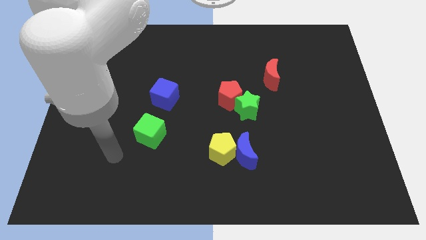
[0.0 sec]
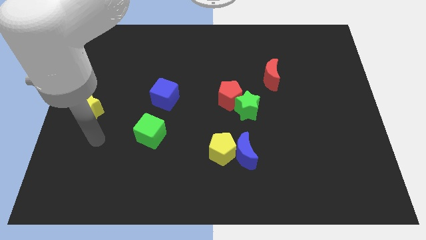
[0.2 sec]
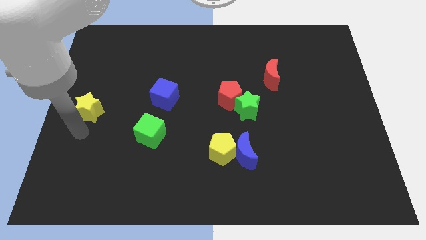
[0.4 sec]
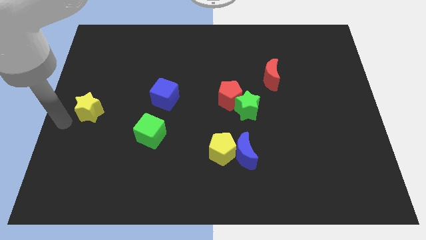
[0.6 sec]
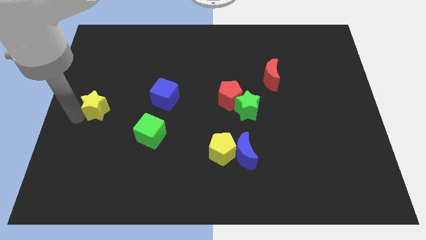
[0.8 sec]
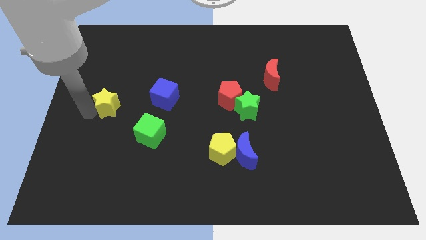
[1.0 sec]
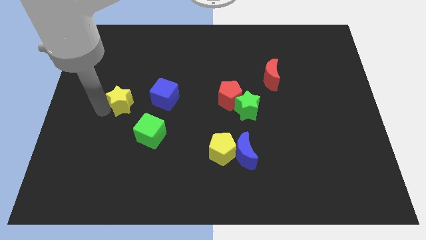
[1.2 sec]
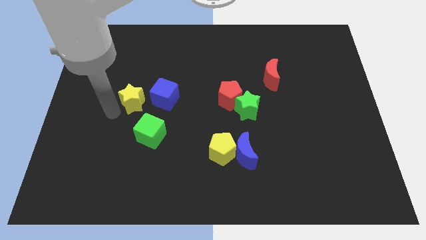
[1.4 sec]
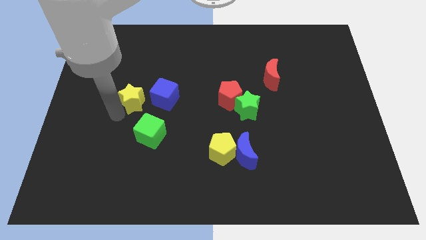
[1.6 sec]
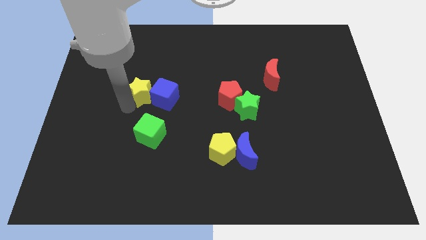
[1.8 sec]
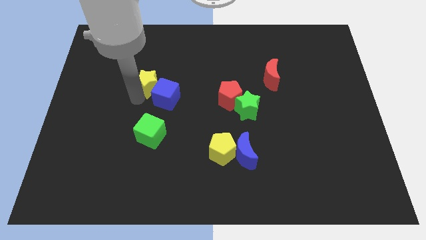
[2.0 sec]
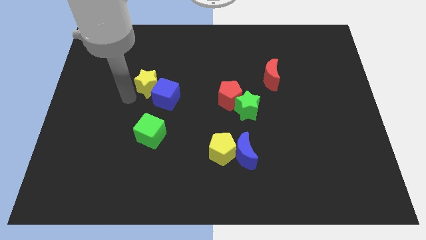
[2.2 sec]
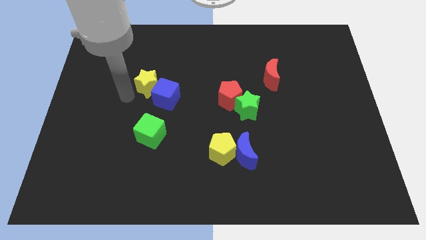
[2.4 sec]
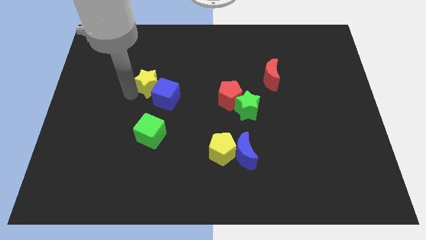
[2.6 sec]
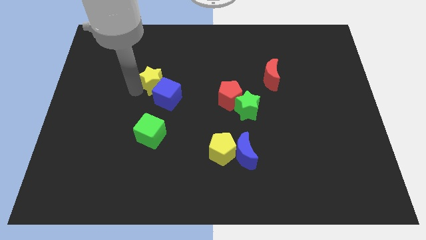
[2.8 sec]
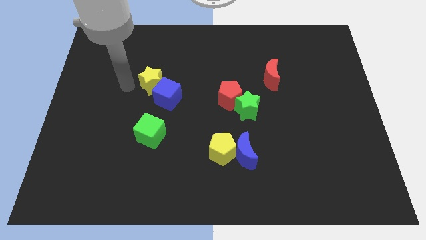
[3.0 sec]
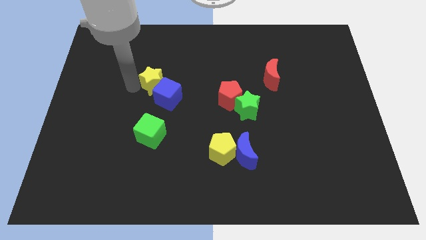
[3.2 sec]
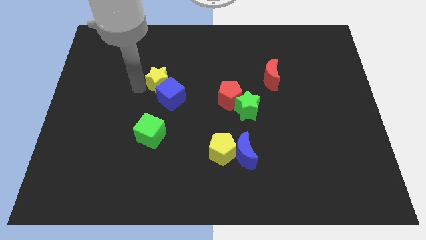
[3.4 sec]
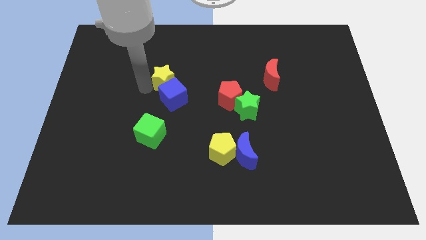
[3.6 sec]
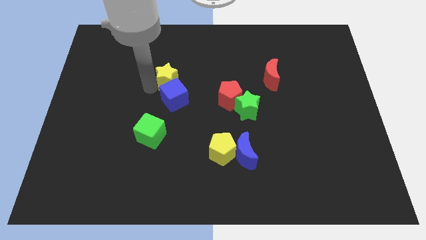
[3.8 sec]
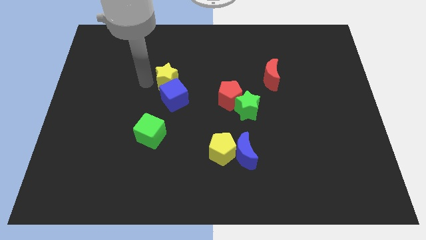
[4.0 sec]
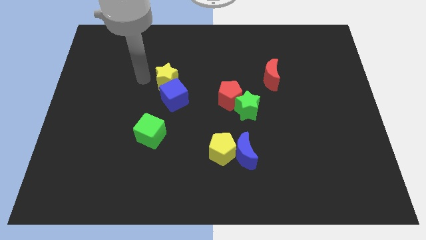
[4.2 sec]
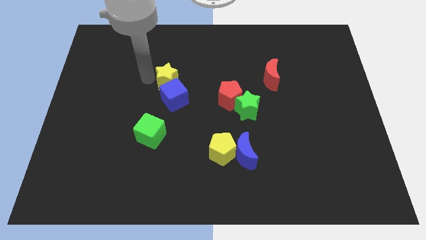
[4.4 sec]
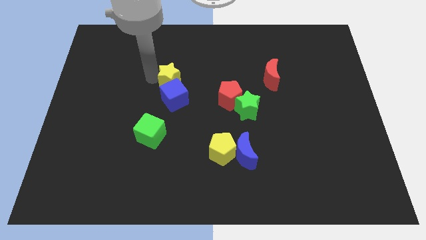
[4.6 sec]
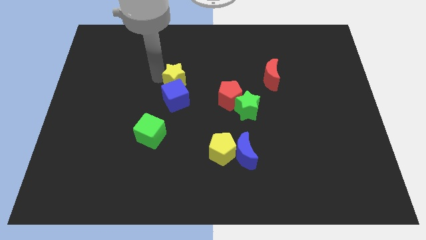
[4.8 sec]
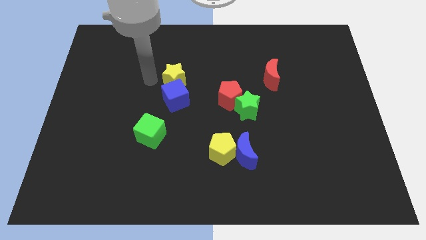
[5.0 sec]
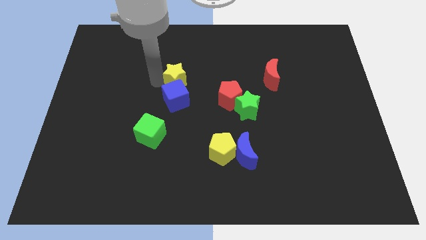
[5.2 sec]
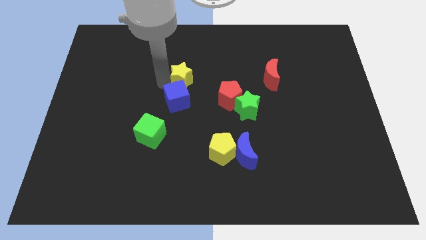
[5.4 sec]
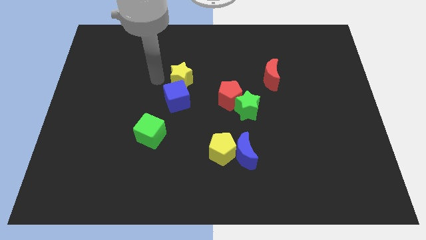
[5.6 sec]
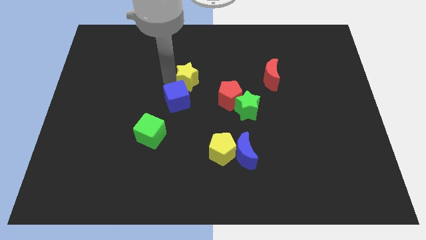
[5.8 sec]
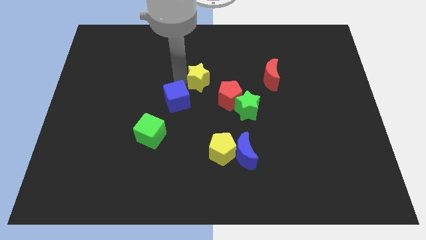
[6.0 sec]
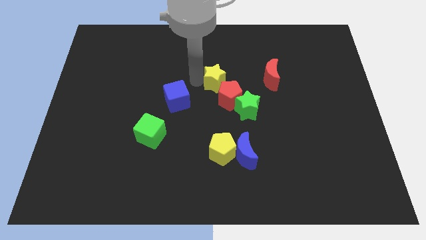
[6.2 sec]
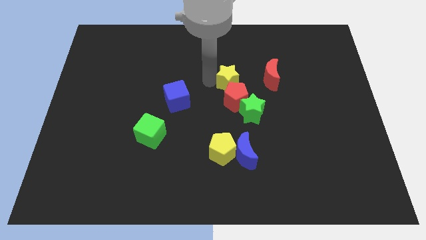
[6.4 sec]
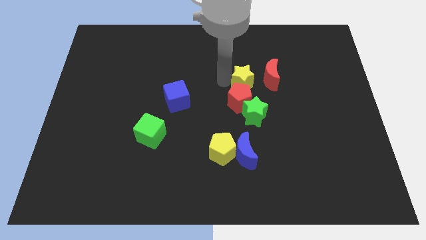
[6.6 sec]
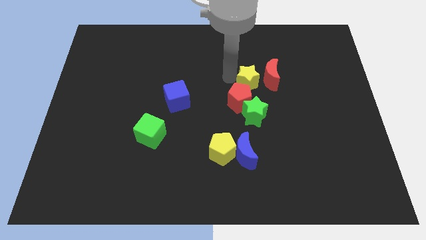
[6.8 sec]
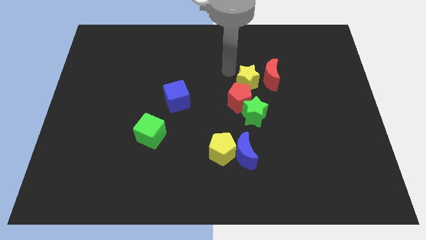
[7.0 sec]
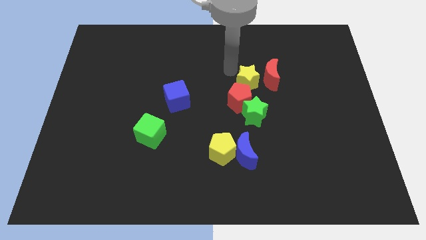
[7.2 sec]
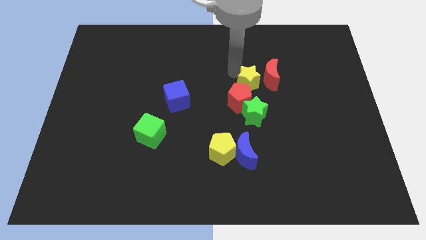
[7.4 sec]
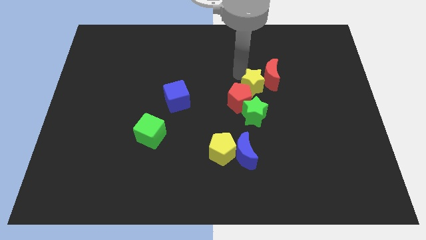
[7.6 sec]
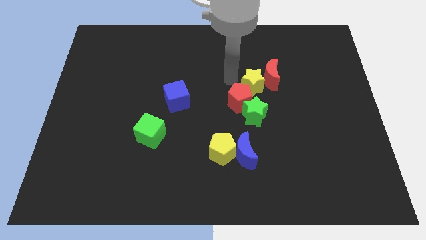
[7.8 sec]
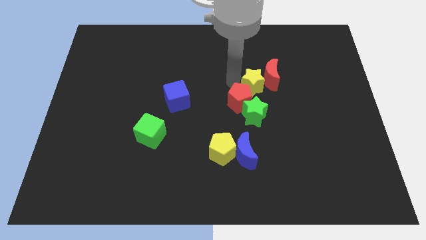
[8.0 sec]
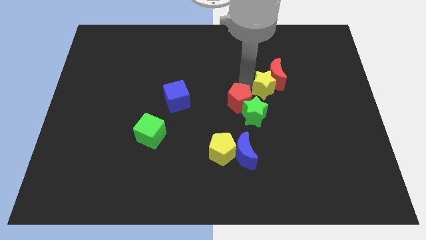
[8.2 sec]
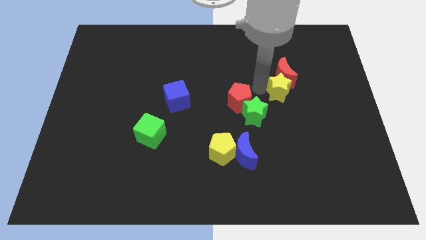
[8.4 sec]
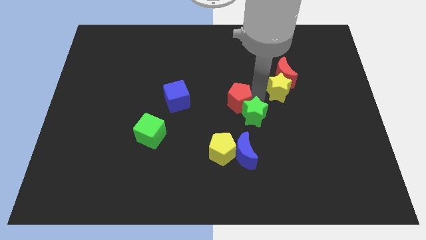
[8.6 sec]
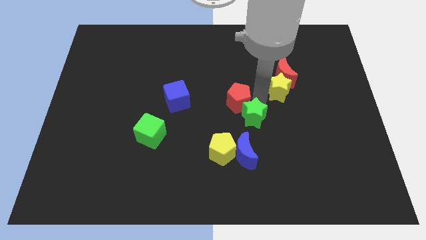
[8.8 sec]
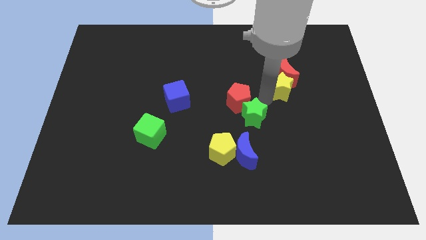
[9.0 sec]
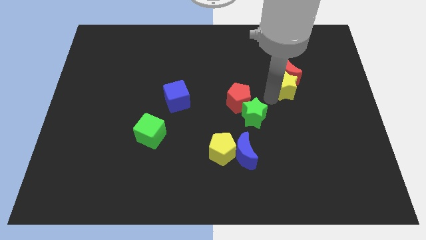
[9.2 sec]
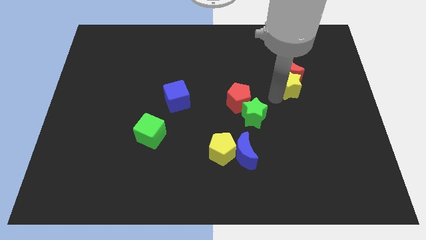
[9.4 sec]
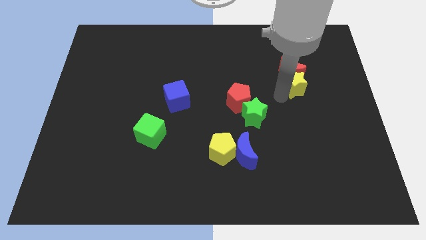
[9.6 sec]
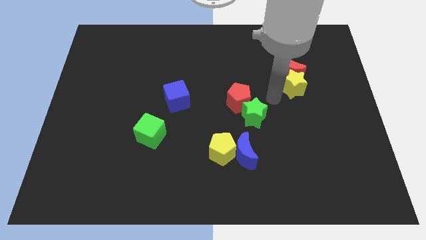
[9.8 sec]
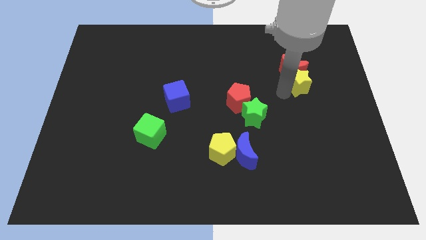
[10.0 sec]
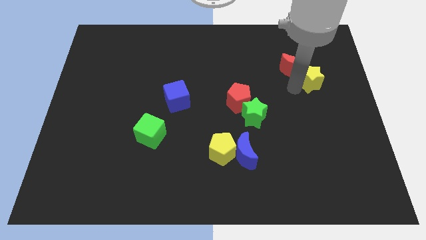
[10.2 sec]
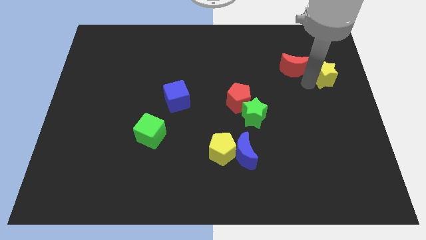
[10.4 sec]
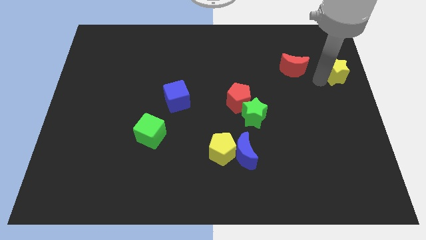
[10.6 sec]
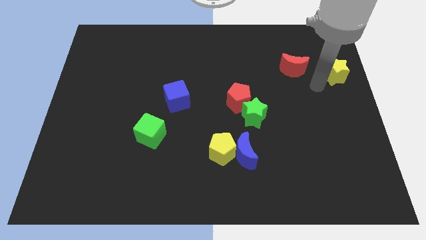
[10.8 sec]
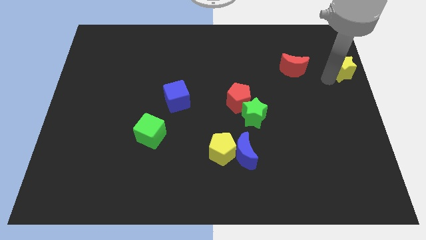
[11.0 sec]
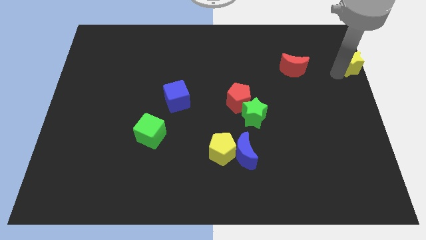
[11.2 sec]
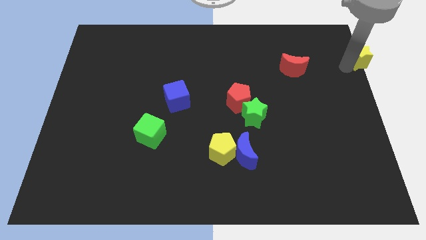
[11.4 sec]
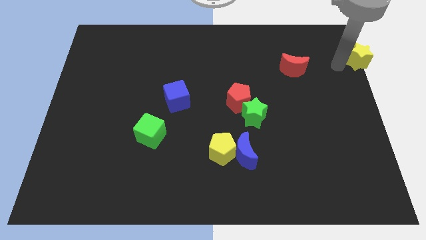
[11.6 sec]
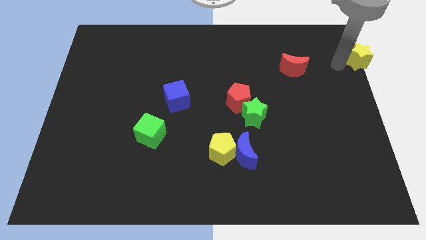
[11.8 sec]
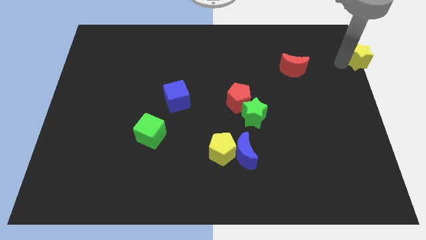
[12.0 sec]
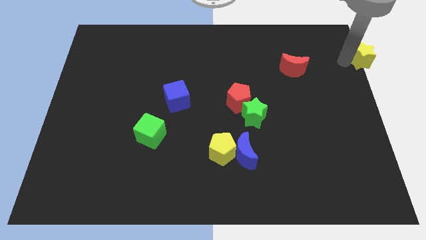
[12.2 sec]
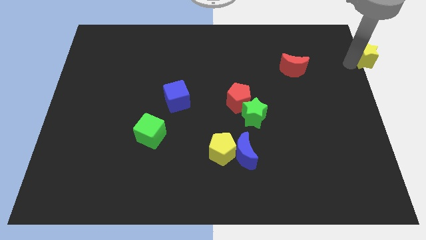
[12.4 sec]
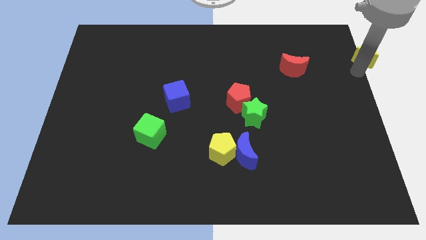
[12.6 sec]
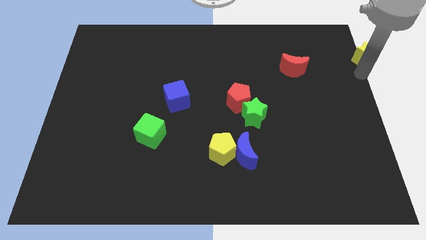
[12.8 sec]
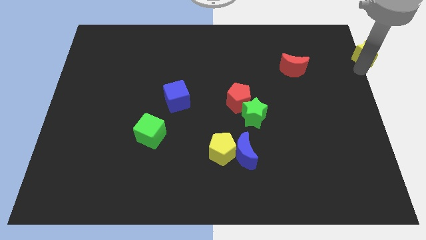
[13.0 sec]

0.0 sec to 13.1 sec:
slide the yellow star to the top right

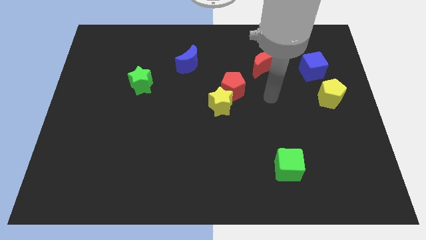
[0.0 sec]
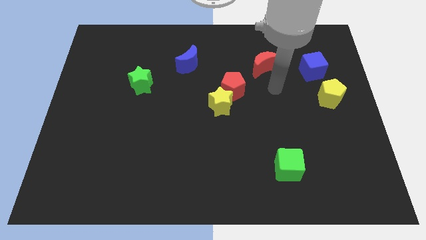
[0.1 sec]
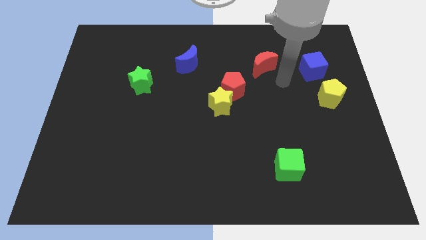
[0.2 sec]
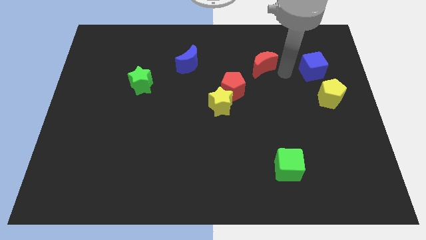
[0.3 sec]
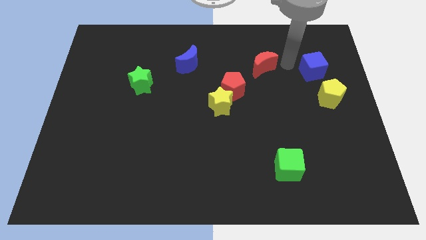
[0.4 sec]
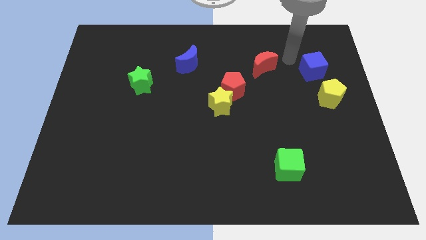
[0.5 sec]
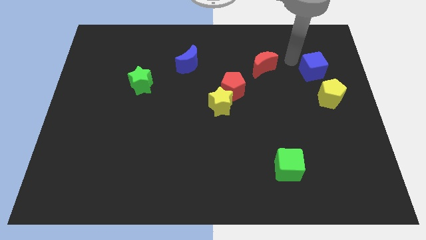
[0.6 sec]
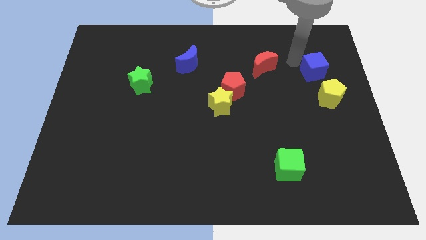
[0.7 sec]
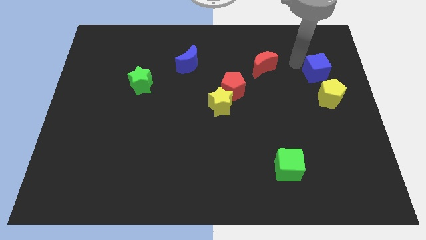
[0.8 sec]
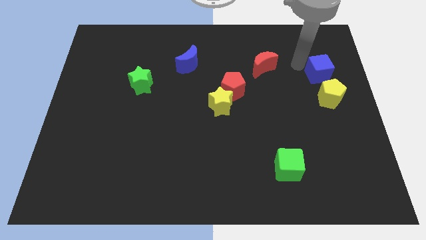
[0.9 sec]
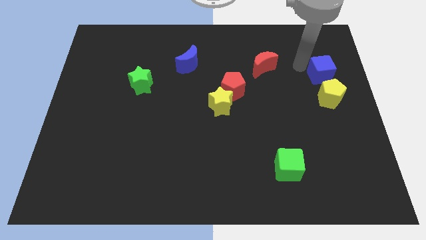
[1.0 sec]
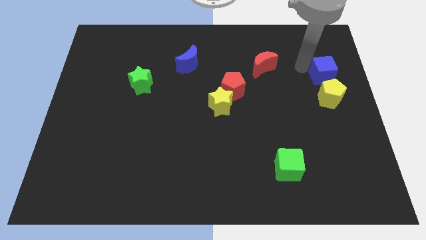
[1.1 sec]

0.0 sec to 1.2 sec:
slide the blue cube to the right side of the board
